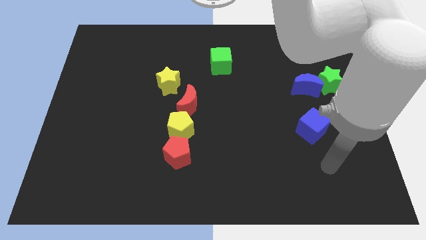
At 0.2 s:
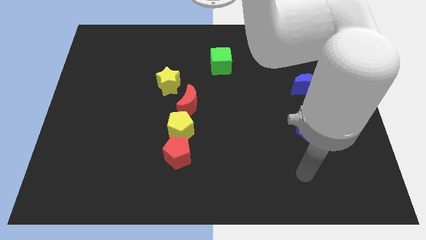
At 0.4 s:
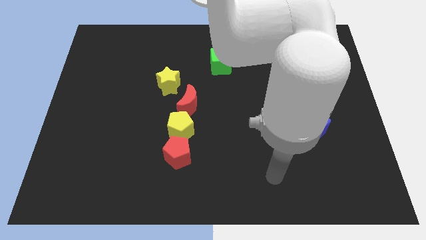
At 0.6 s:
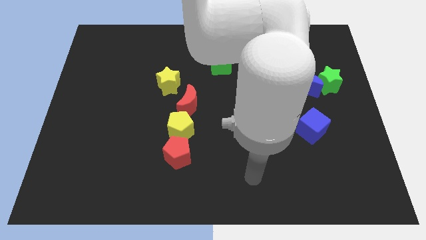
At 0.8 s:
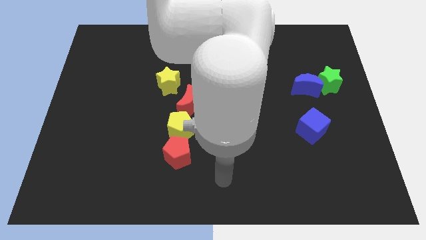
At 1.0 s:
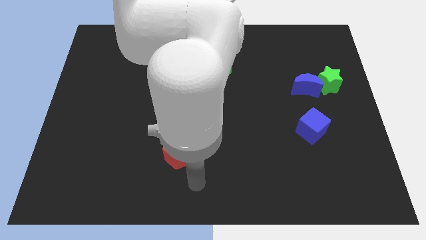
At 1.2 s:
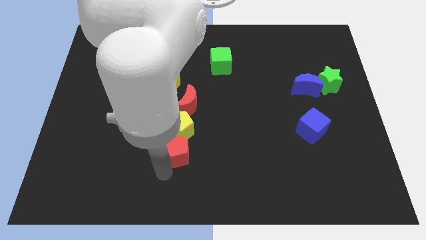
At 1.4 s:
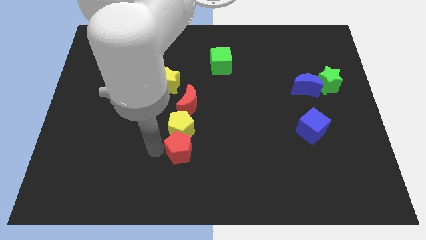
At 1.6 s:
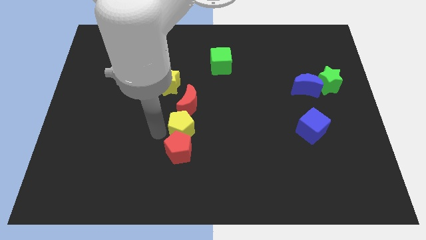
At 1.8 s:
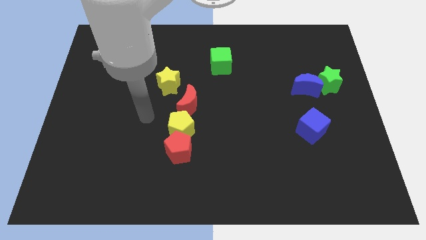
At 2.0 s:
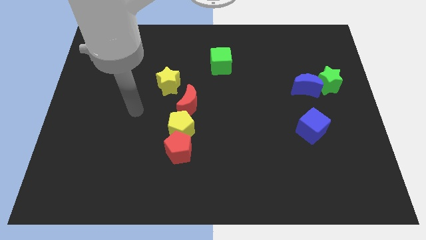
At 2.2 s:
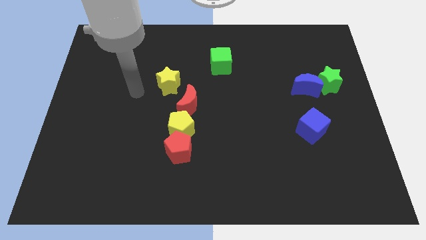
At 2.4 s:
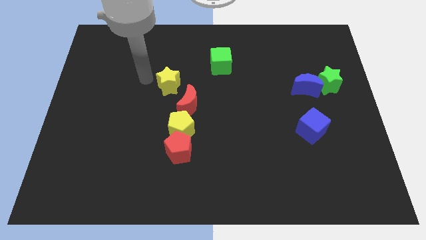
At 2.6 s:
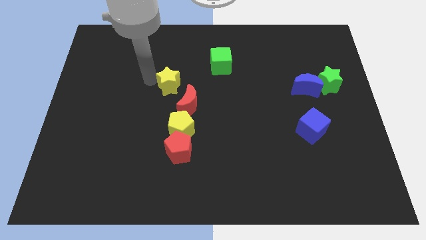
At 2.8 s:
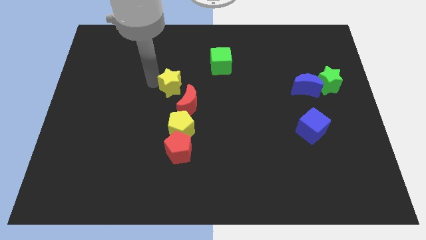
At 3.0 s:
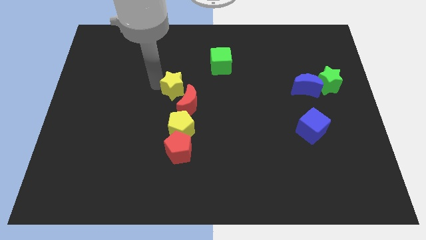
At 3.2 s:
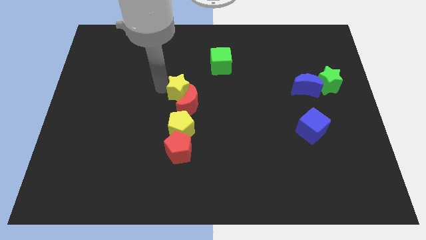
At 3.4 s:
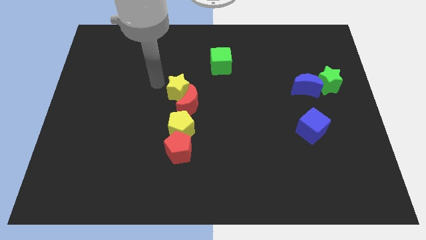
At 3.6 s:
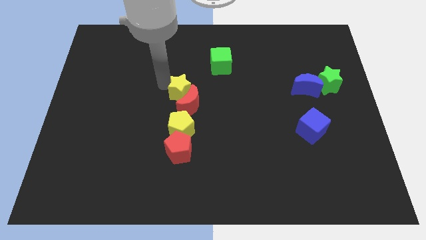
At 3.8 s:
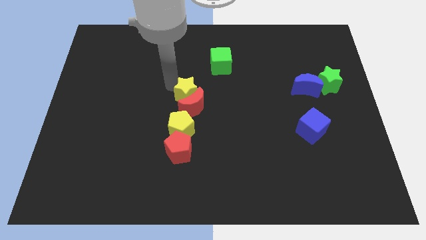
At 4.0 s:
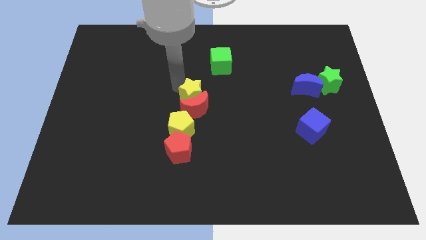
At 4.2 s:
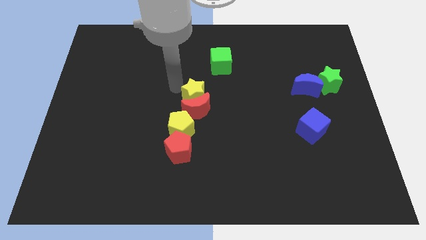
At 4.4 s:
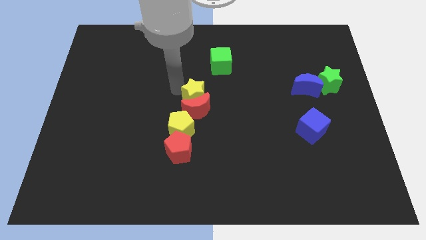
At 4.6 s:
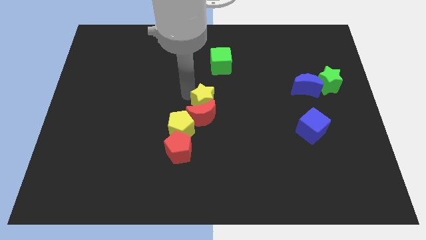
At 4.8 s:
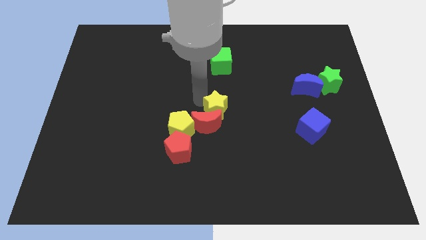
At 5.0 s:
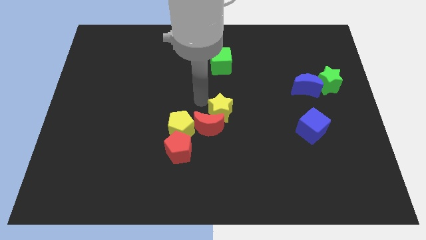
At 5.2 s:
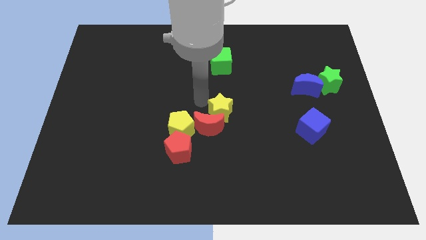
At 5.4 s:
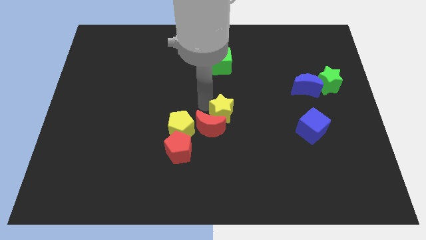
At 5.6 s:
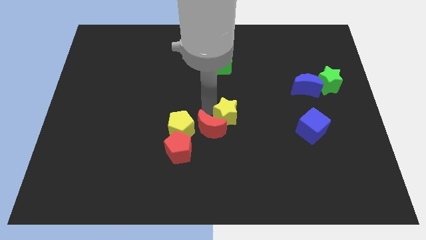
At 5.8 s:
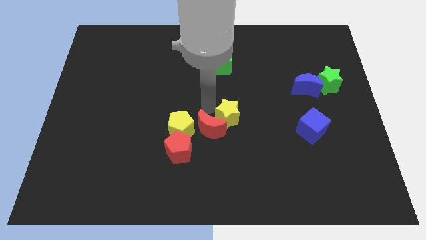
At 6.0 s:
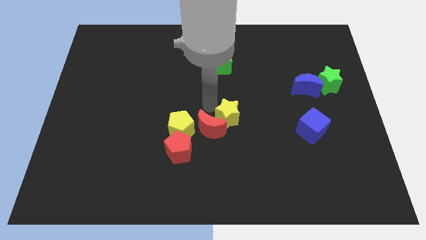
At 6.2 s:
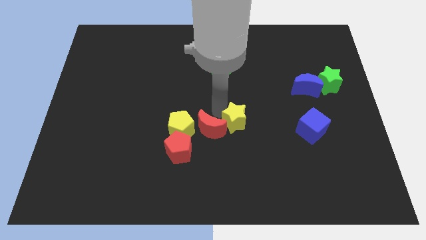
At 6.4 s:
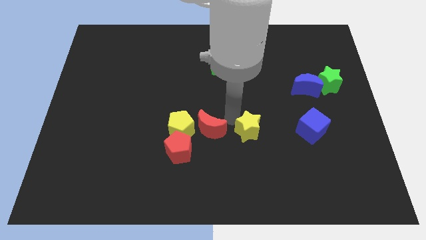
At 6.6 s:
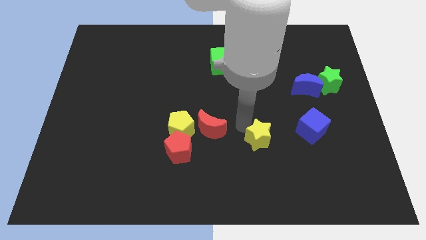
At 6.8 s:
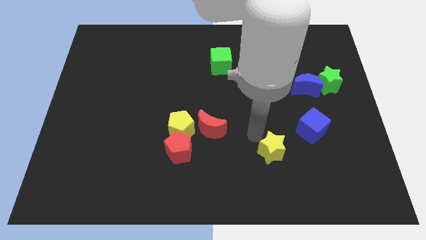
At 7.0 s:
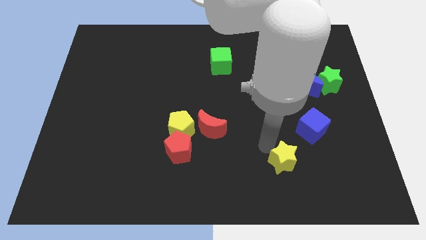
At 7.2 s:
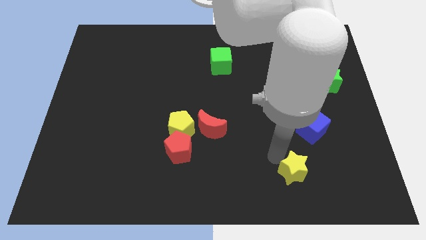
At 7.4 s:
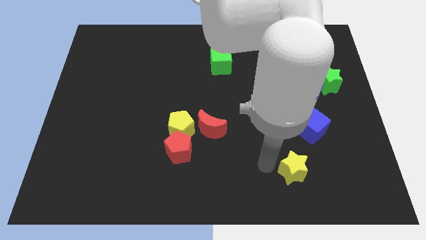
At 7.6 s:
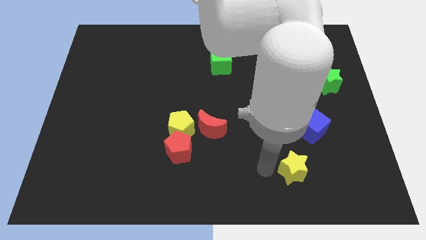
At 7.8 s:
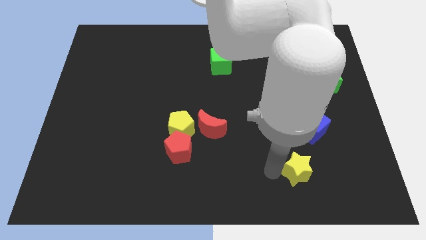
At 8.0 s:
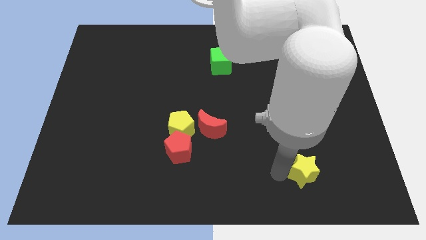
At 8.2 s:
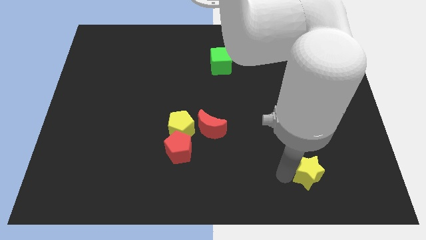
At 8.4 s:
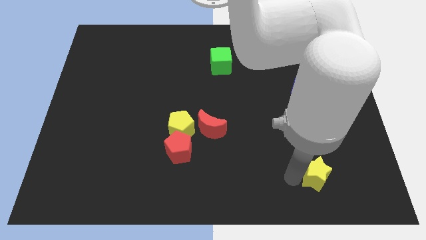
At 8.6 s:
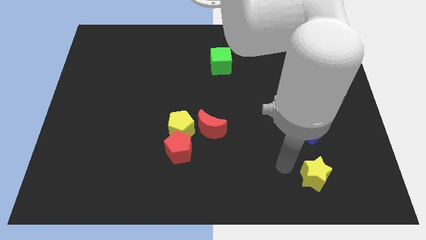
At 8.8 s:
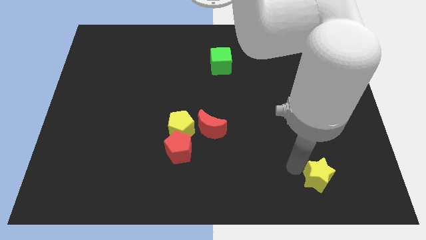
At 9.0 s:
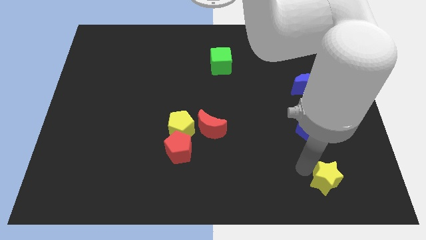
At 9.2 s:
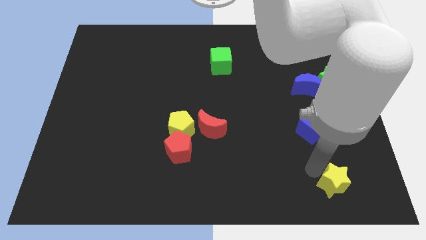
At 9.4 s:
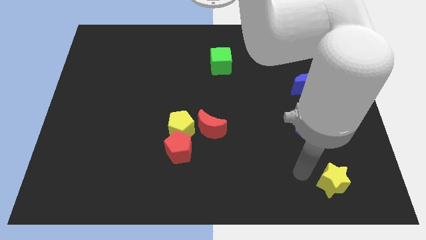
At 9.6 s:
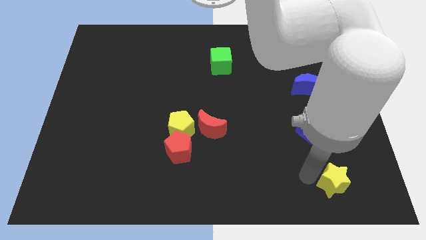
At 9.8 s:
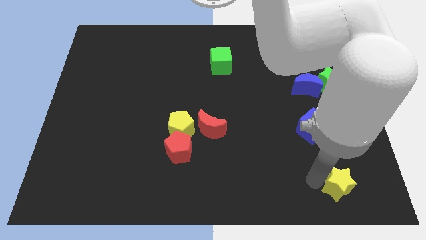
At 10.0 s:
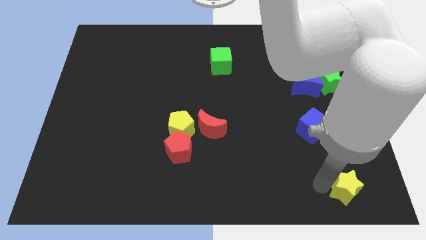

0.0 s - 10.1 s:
slide the yellow star to the bottom right of the board

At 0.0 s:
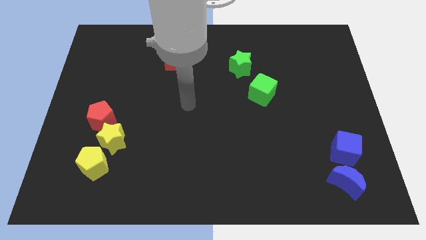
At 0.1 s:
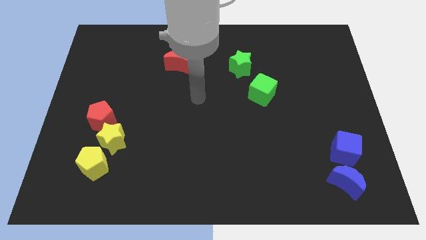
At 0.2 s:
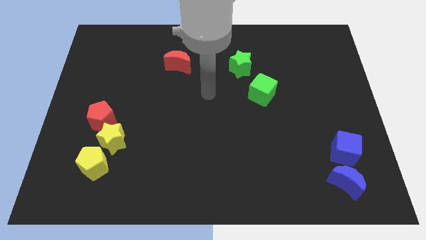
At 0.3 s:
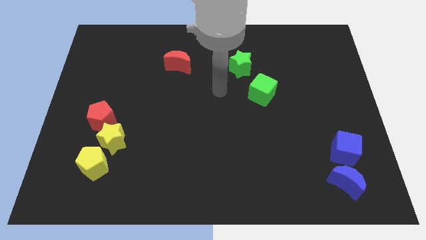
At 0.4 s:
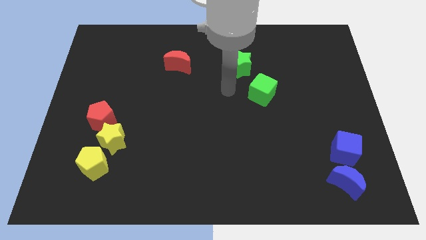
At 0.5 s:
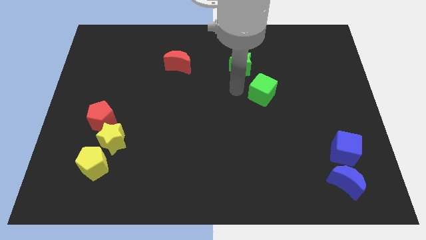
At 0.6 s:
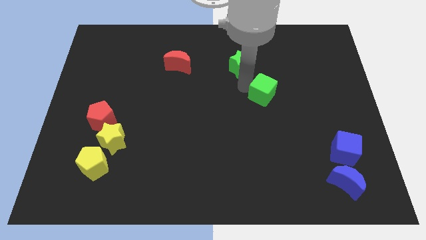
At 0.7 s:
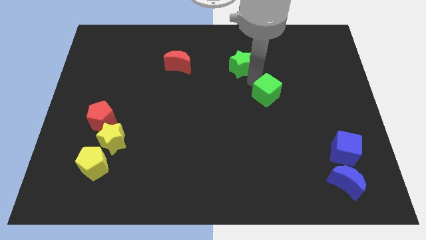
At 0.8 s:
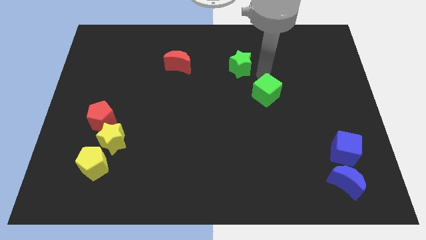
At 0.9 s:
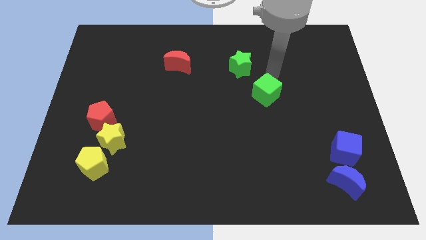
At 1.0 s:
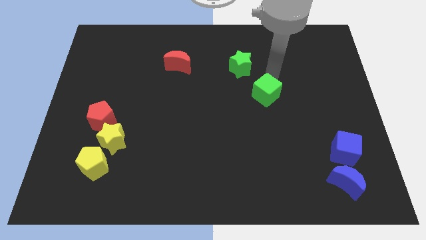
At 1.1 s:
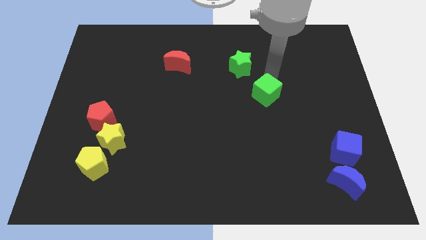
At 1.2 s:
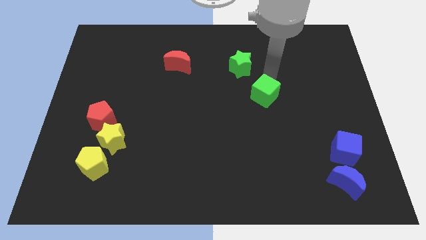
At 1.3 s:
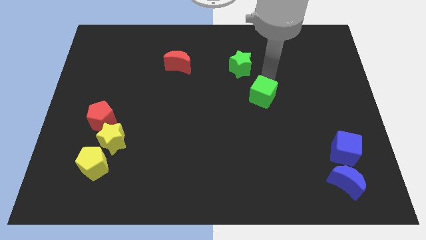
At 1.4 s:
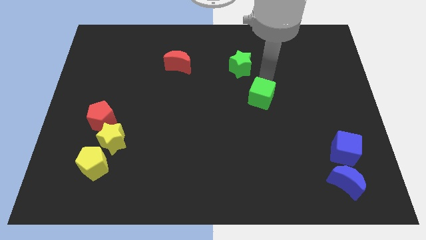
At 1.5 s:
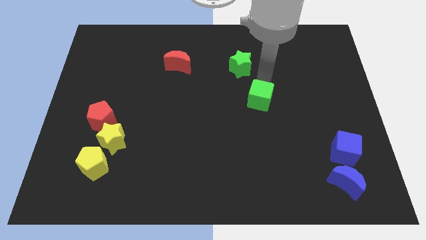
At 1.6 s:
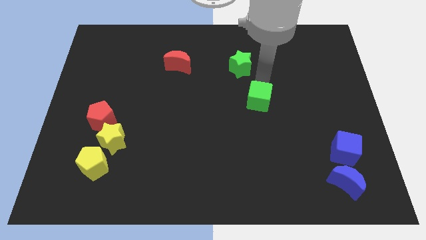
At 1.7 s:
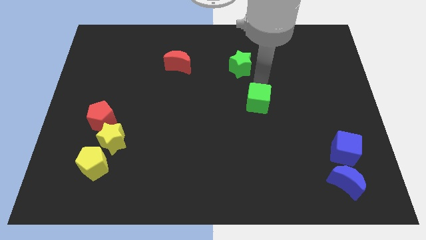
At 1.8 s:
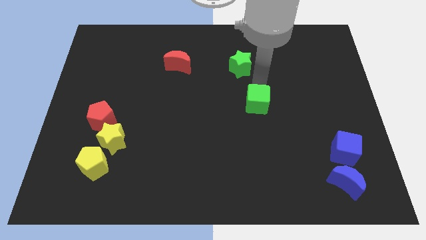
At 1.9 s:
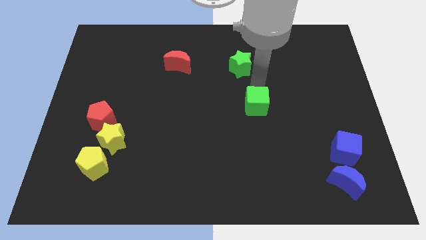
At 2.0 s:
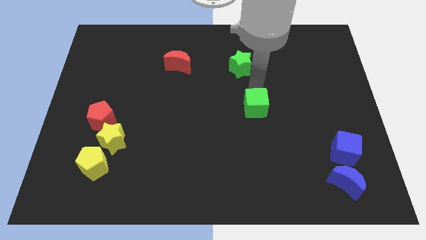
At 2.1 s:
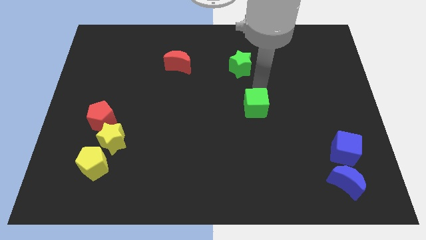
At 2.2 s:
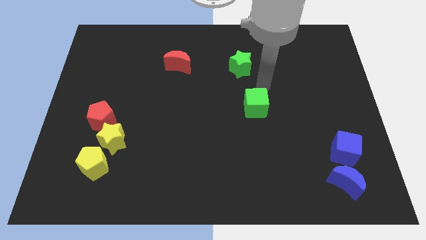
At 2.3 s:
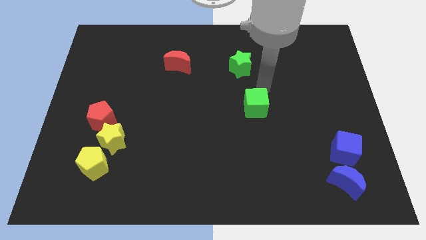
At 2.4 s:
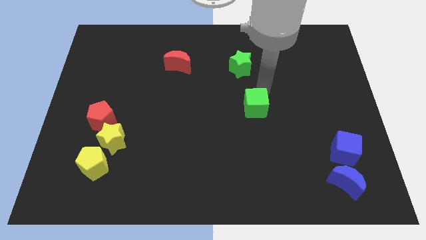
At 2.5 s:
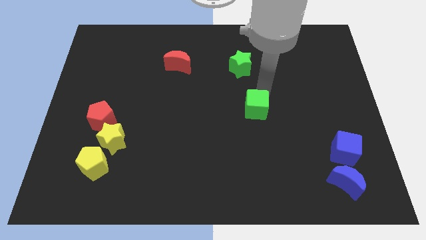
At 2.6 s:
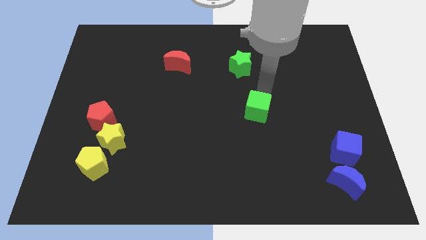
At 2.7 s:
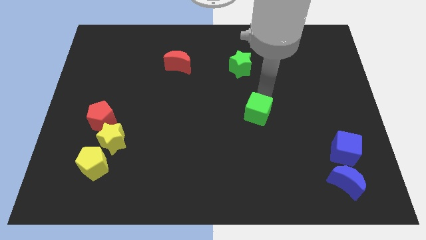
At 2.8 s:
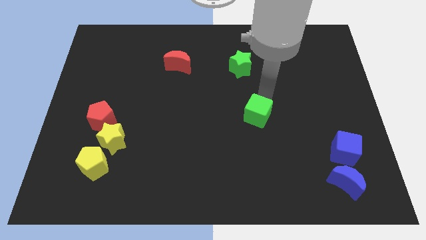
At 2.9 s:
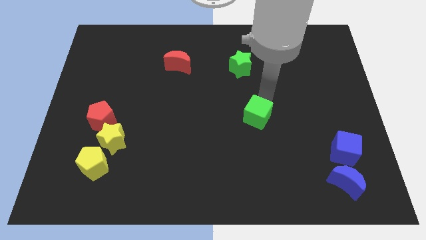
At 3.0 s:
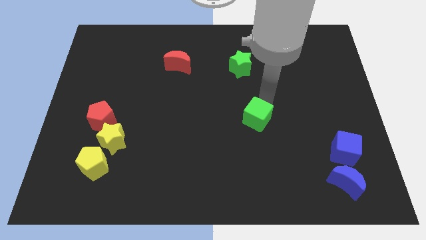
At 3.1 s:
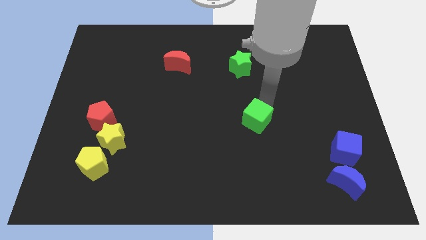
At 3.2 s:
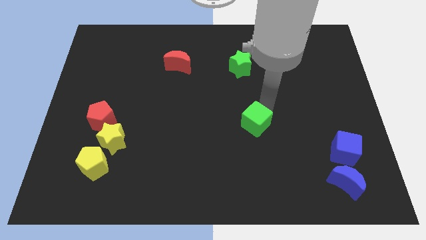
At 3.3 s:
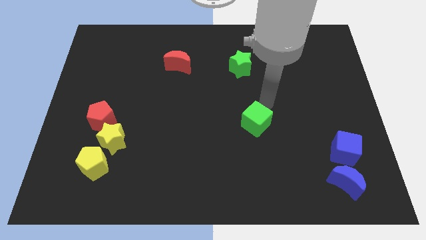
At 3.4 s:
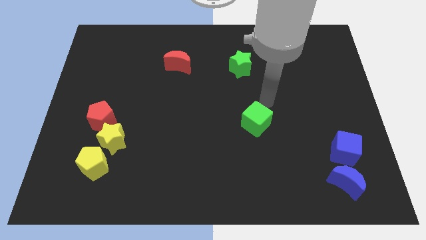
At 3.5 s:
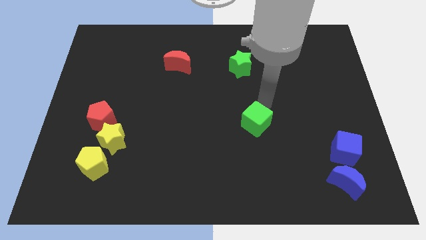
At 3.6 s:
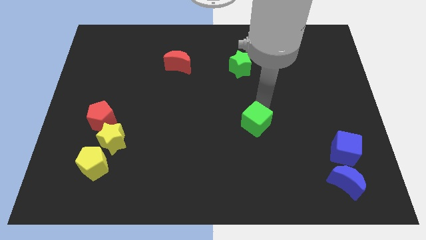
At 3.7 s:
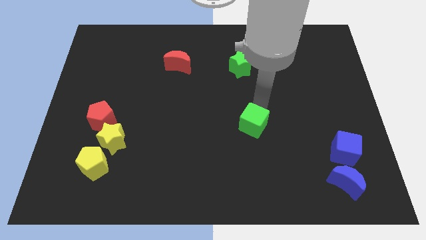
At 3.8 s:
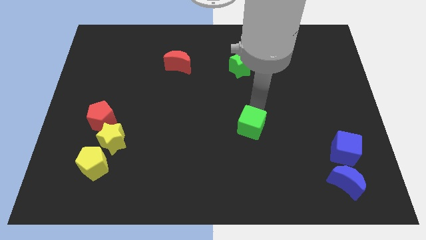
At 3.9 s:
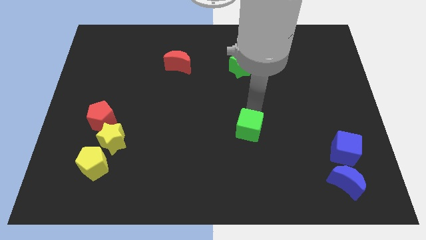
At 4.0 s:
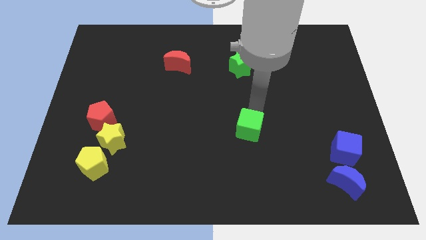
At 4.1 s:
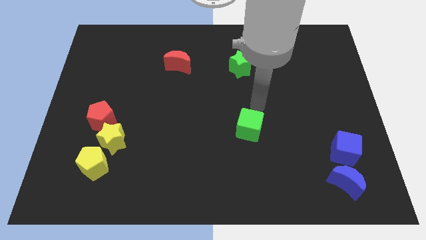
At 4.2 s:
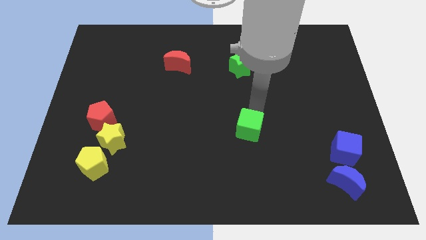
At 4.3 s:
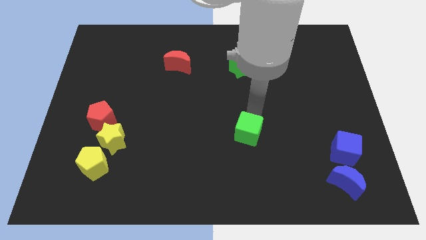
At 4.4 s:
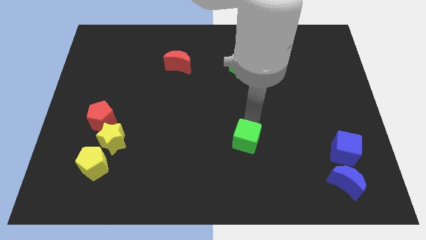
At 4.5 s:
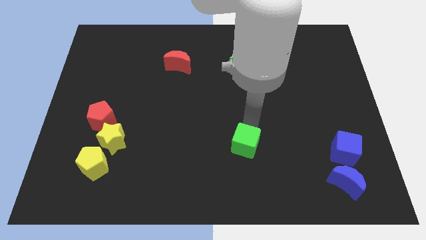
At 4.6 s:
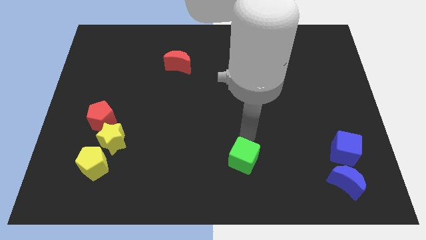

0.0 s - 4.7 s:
push the green cube to the bottom
